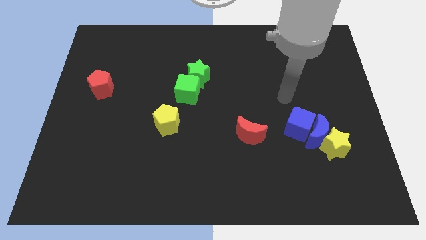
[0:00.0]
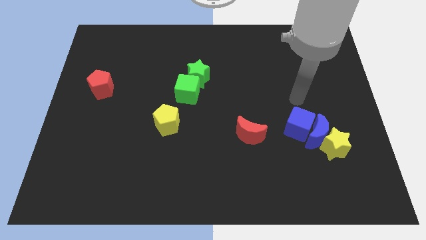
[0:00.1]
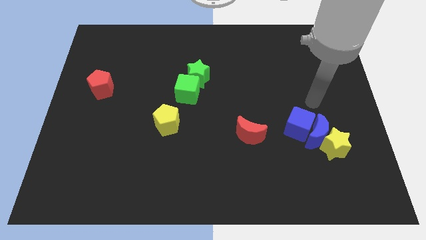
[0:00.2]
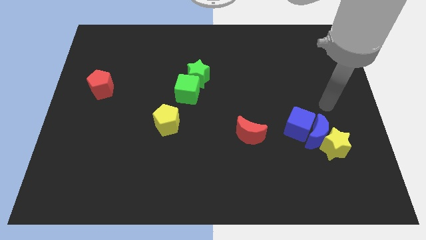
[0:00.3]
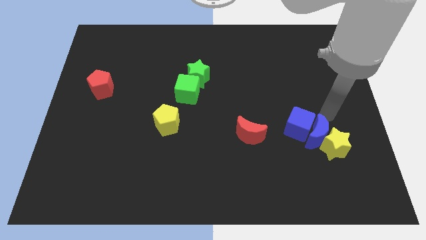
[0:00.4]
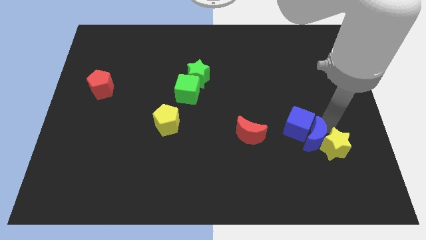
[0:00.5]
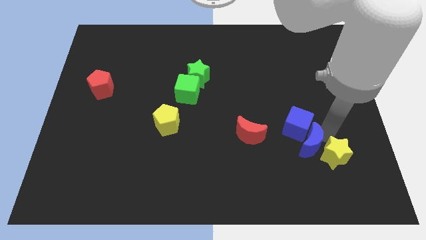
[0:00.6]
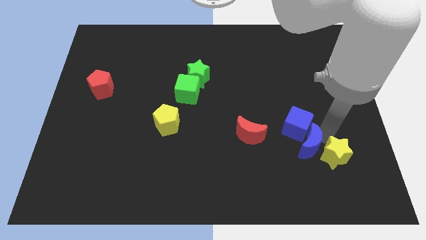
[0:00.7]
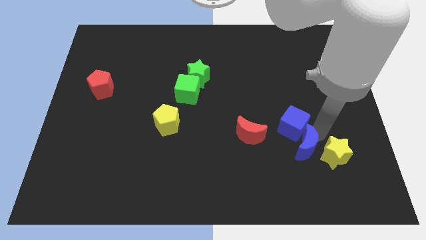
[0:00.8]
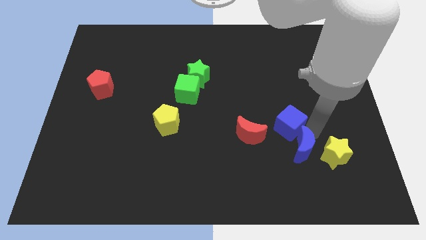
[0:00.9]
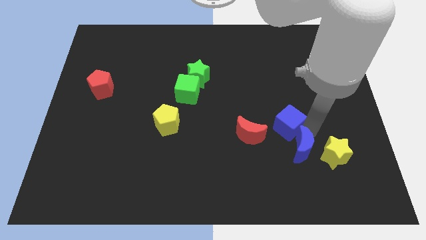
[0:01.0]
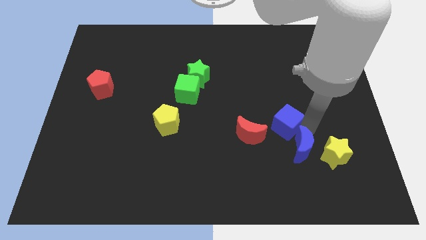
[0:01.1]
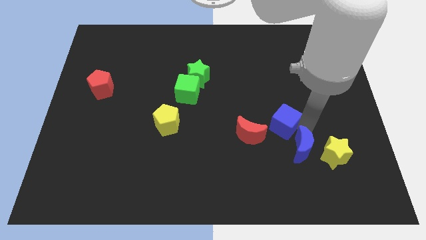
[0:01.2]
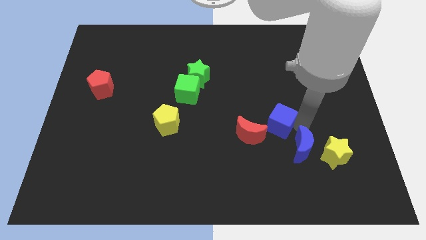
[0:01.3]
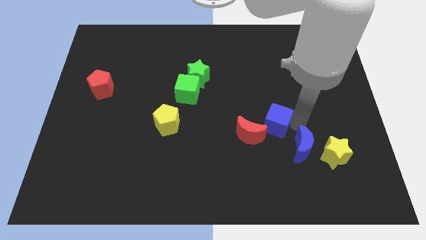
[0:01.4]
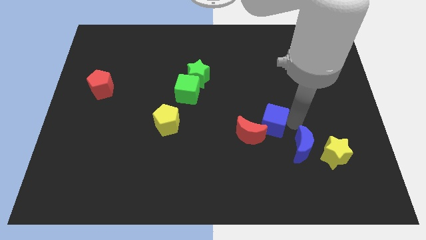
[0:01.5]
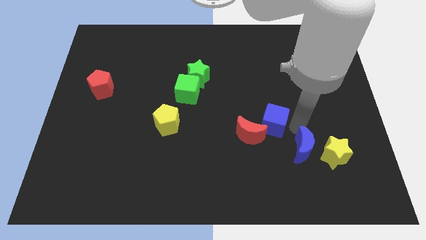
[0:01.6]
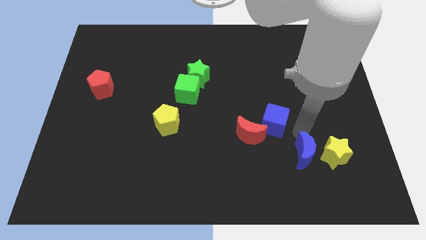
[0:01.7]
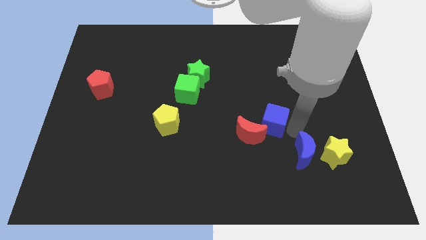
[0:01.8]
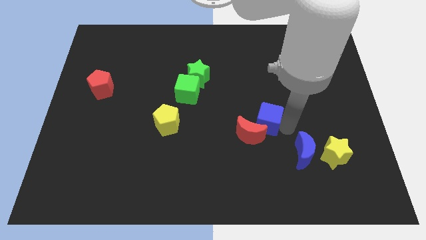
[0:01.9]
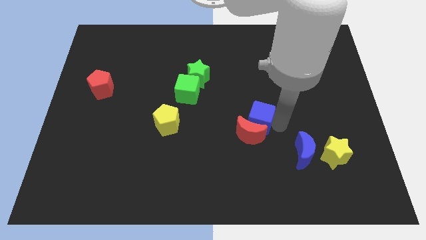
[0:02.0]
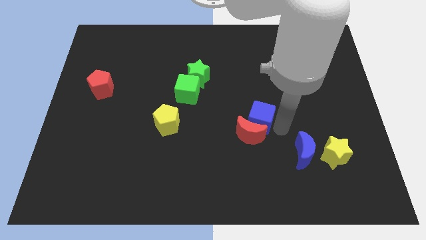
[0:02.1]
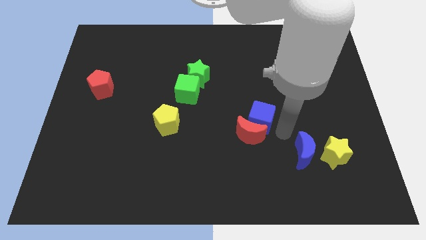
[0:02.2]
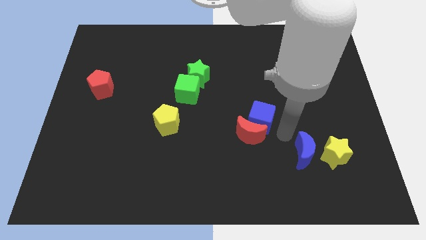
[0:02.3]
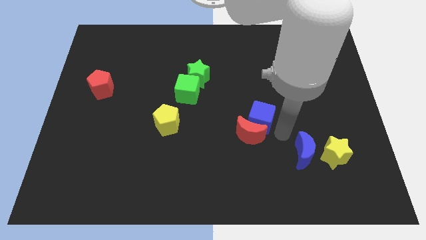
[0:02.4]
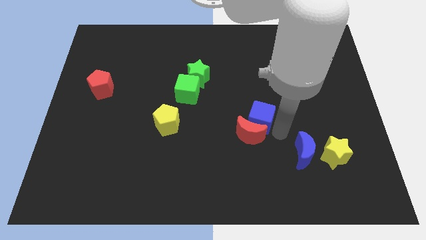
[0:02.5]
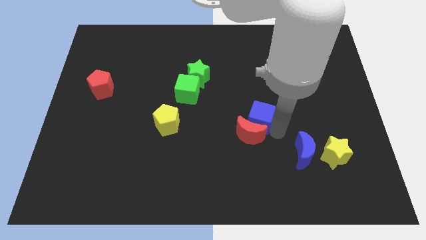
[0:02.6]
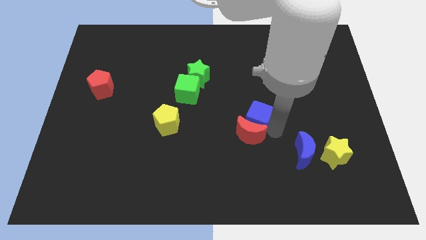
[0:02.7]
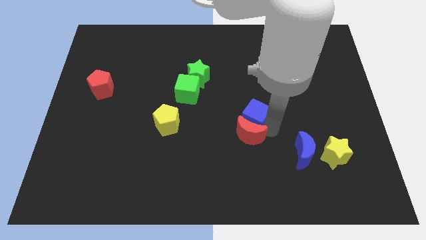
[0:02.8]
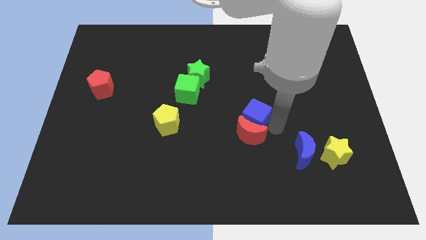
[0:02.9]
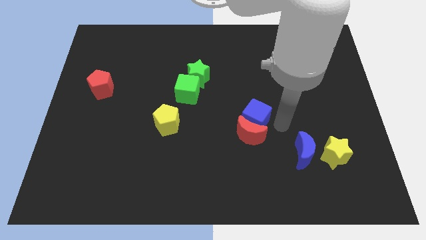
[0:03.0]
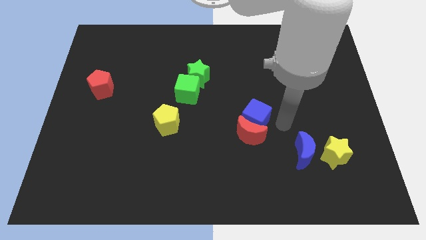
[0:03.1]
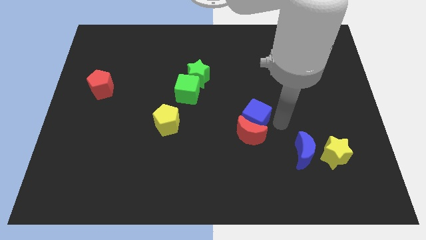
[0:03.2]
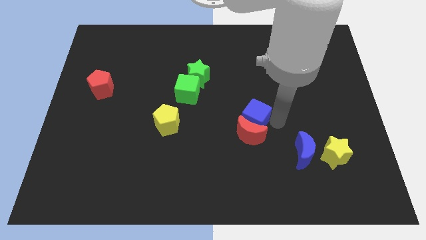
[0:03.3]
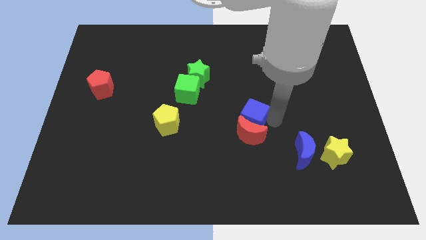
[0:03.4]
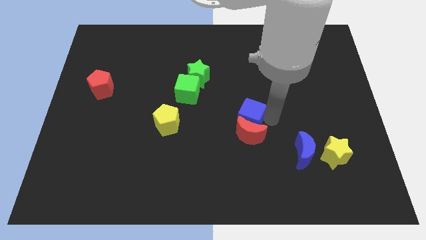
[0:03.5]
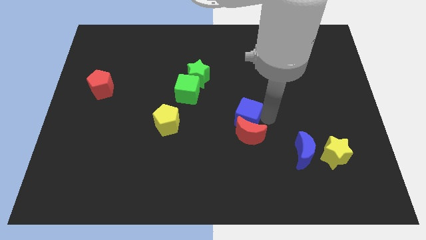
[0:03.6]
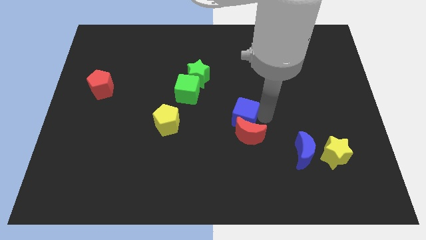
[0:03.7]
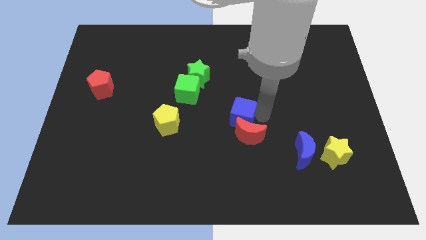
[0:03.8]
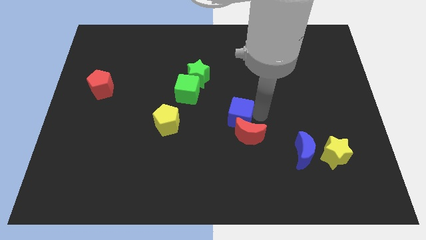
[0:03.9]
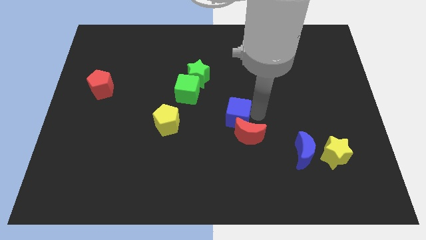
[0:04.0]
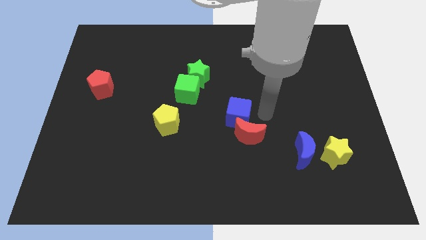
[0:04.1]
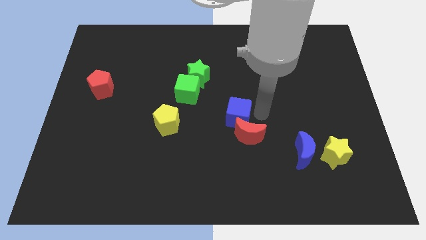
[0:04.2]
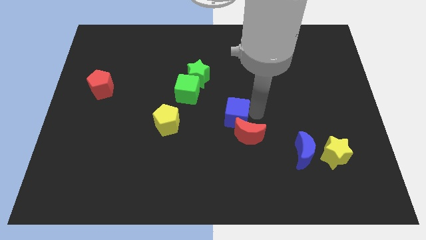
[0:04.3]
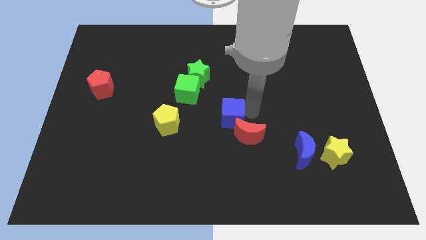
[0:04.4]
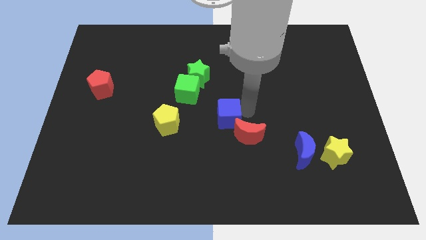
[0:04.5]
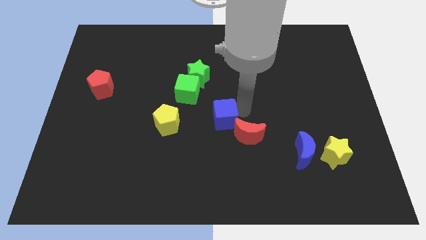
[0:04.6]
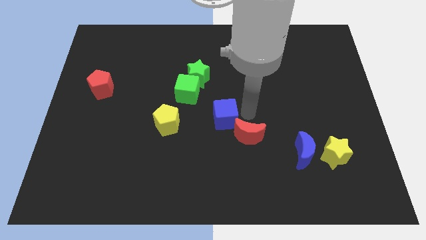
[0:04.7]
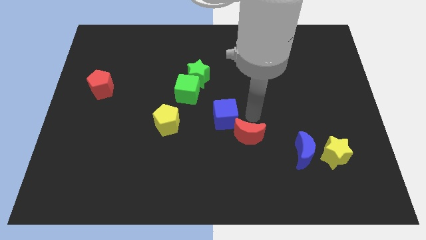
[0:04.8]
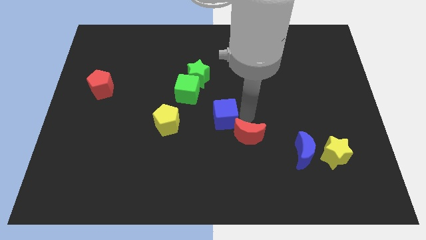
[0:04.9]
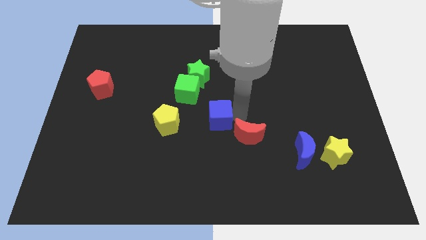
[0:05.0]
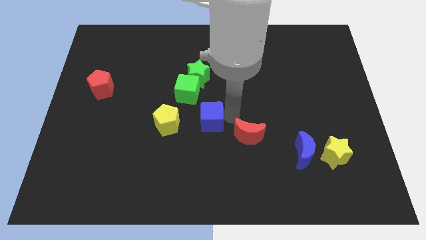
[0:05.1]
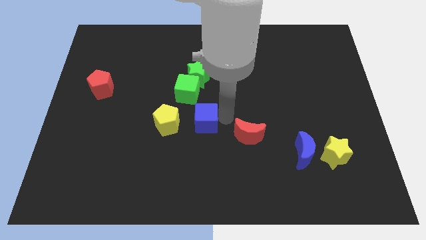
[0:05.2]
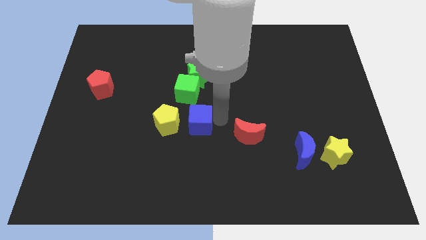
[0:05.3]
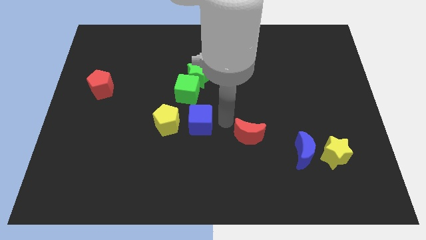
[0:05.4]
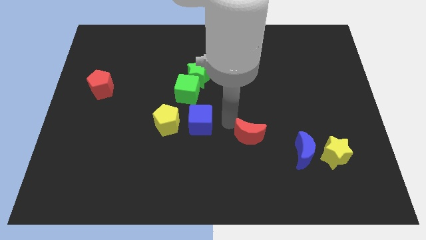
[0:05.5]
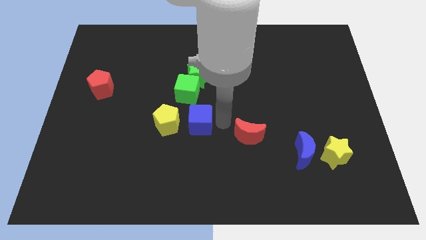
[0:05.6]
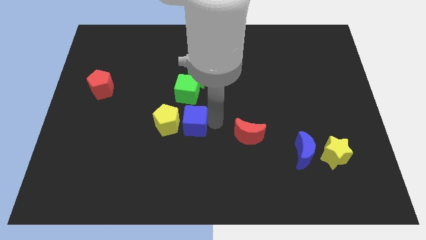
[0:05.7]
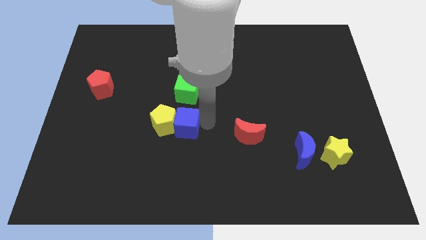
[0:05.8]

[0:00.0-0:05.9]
push the blue cube towards the yellow pentagon

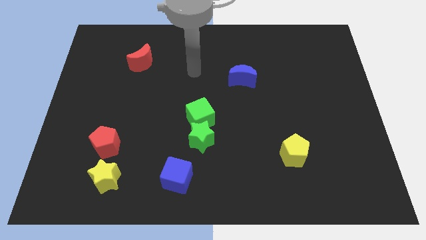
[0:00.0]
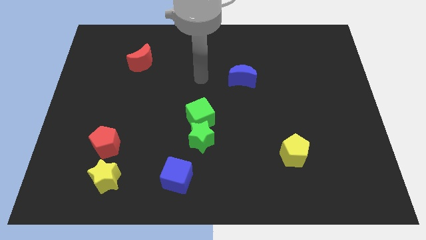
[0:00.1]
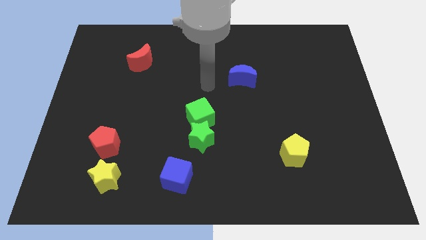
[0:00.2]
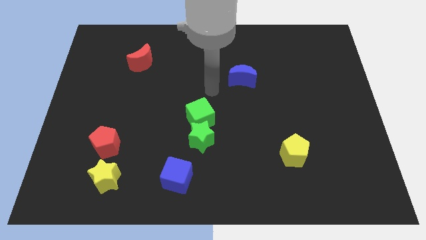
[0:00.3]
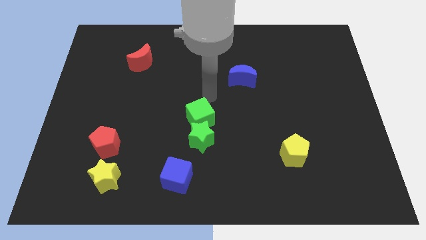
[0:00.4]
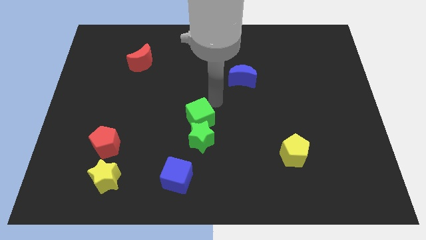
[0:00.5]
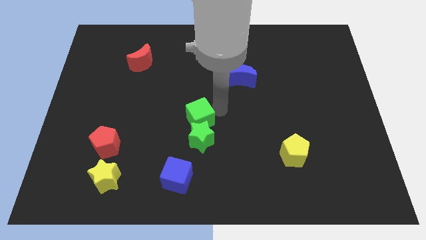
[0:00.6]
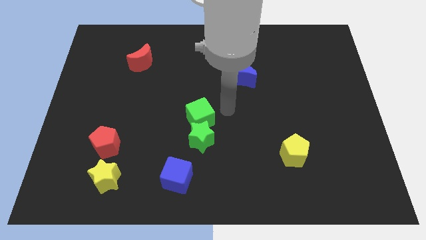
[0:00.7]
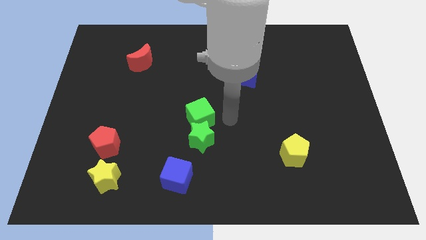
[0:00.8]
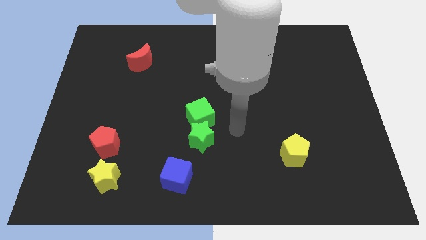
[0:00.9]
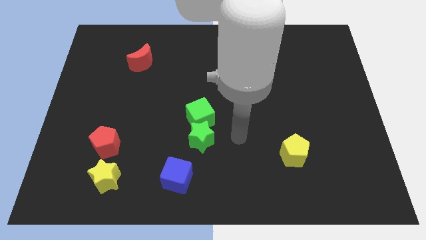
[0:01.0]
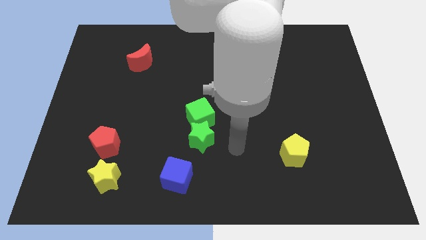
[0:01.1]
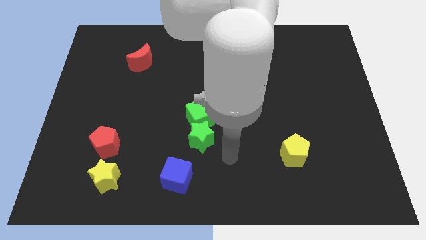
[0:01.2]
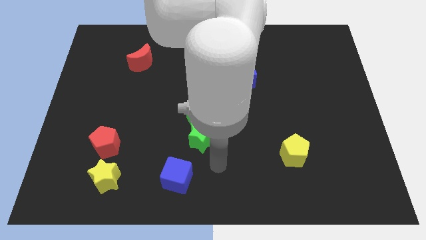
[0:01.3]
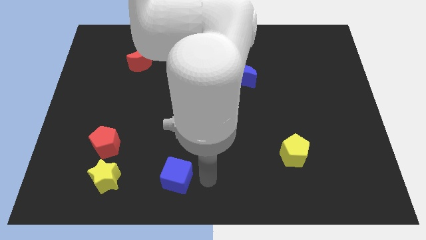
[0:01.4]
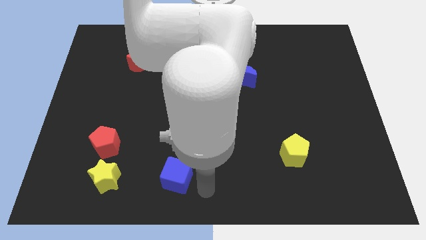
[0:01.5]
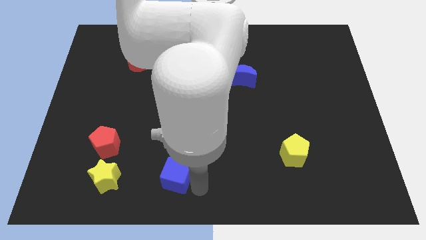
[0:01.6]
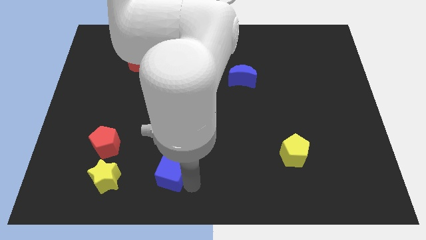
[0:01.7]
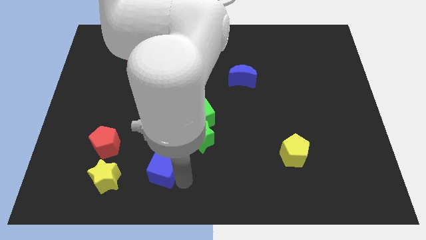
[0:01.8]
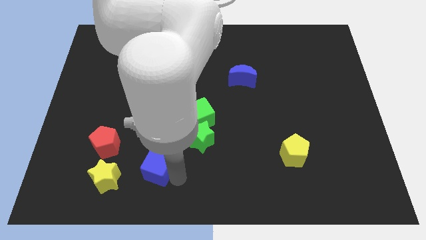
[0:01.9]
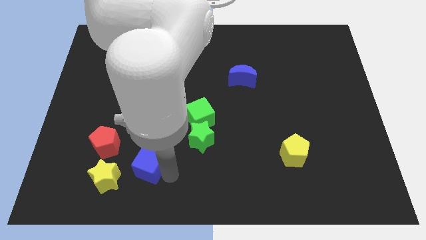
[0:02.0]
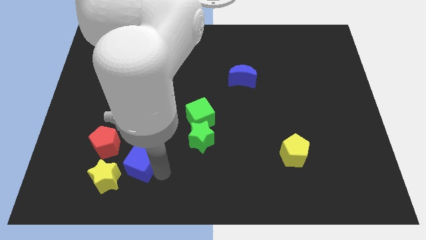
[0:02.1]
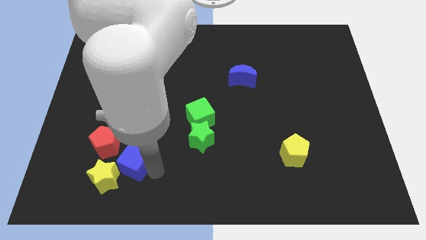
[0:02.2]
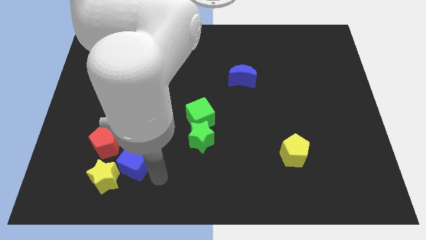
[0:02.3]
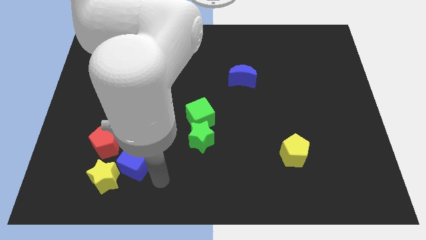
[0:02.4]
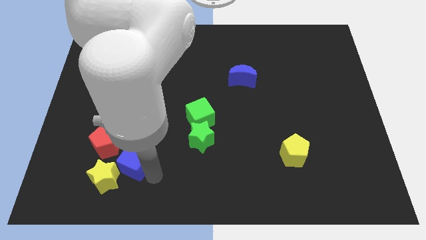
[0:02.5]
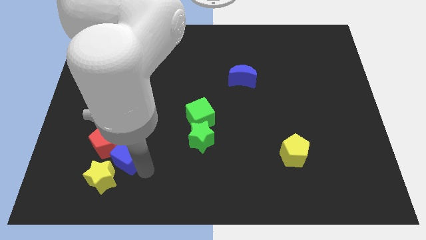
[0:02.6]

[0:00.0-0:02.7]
put the blue cube towards the red pentagon
